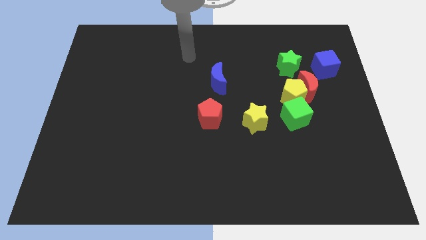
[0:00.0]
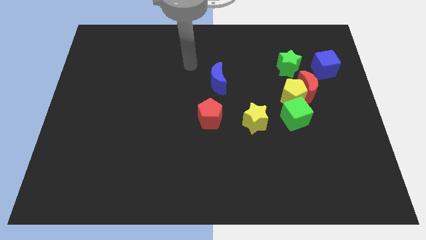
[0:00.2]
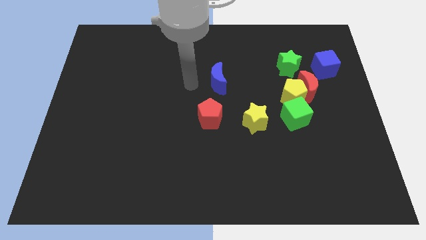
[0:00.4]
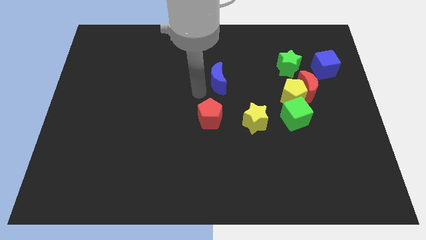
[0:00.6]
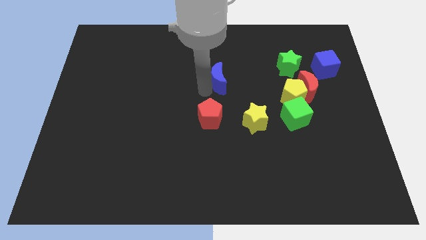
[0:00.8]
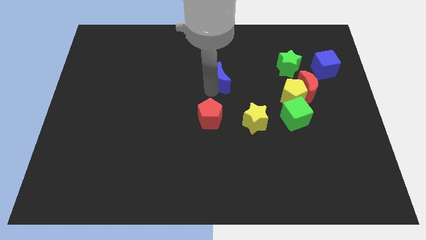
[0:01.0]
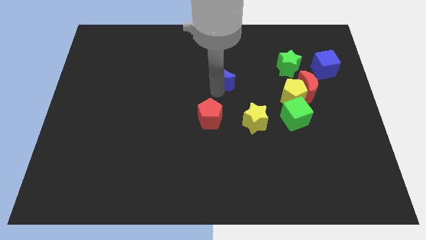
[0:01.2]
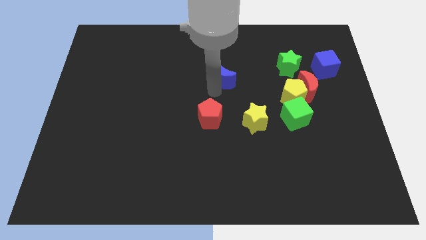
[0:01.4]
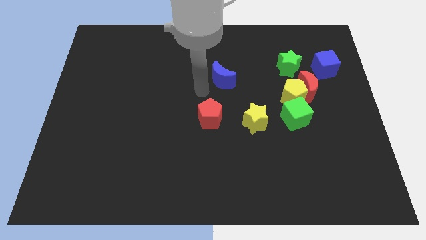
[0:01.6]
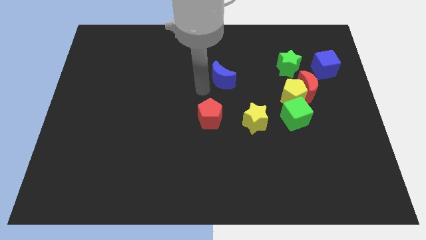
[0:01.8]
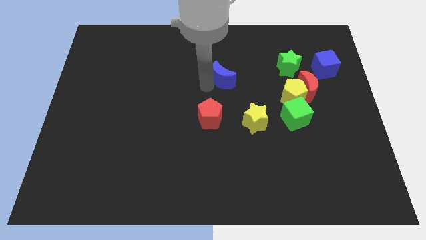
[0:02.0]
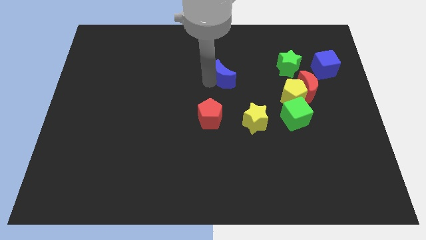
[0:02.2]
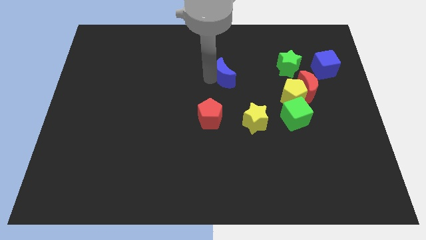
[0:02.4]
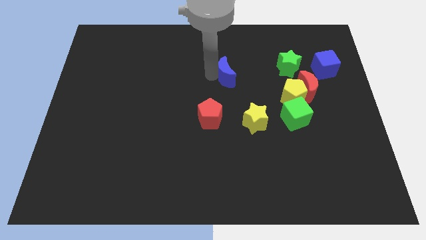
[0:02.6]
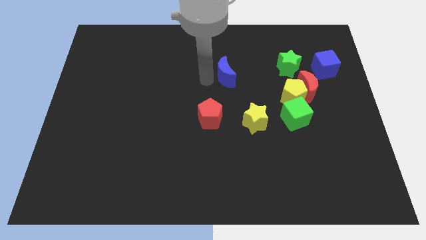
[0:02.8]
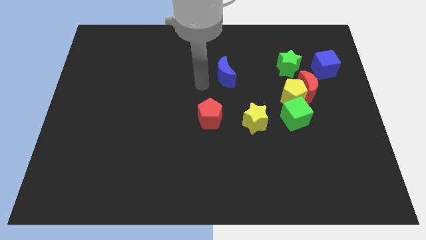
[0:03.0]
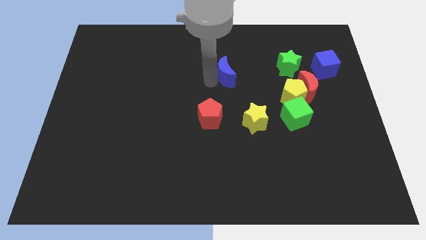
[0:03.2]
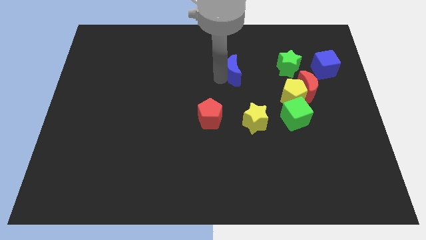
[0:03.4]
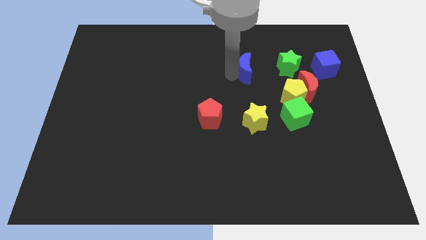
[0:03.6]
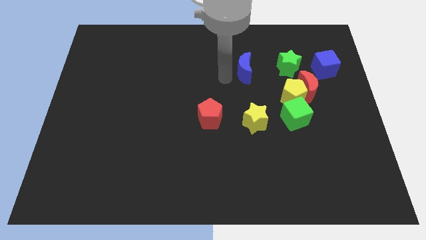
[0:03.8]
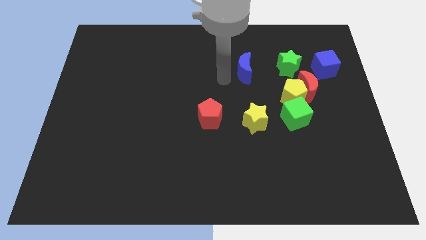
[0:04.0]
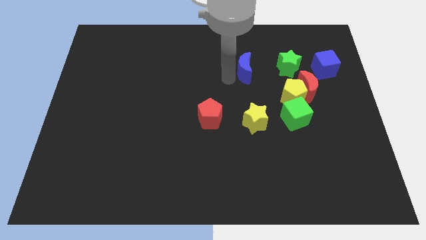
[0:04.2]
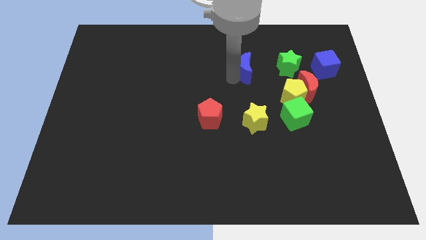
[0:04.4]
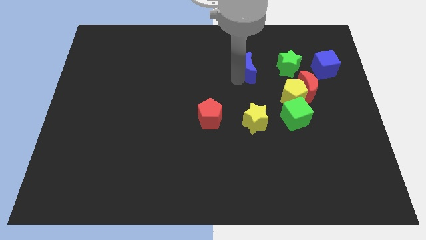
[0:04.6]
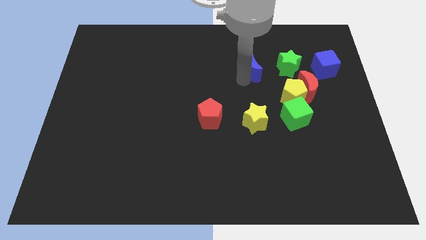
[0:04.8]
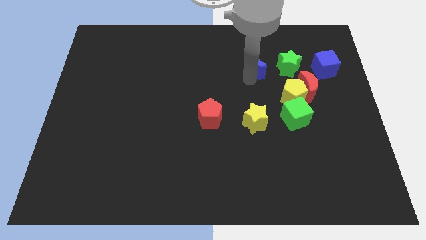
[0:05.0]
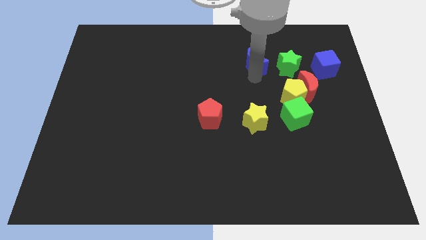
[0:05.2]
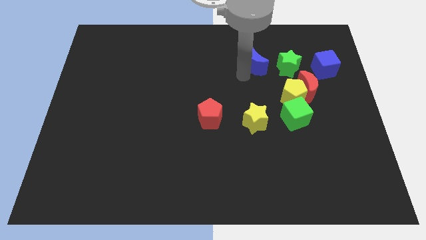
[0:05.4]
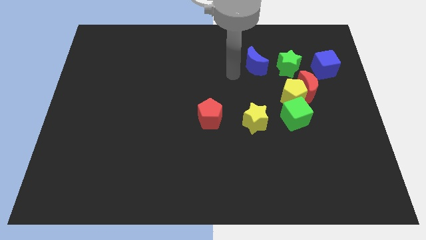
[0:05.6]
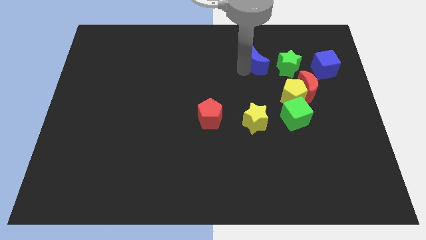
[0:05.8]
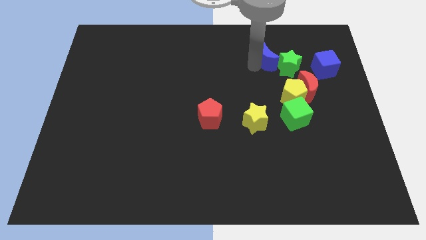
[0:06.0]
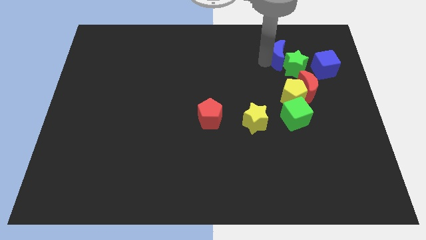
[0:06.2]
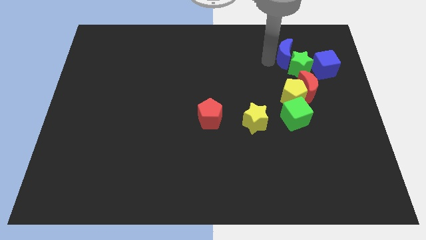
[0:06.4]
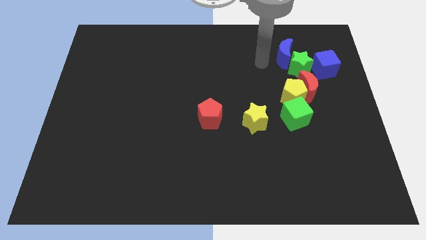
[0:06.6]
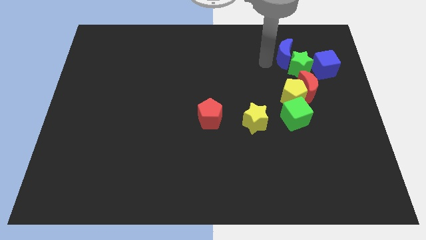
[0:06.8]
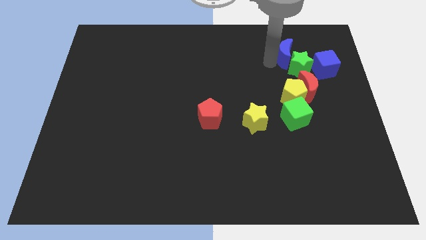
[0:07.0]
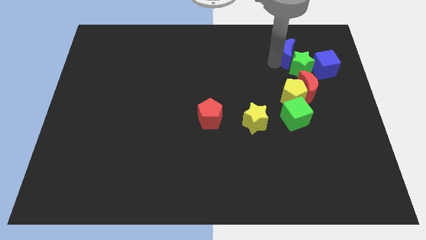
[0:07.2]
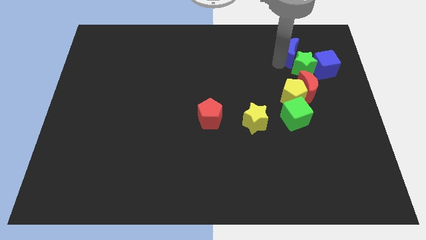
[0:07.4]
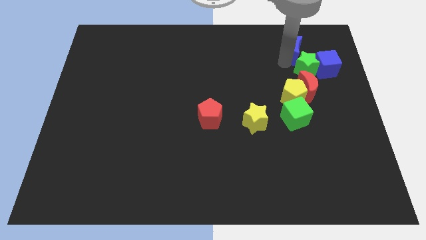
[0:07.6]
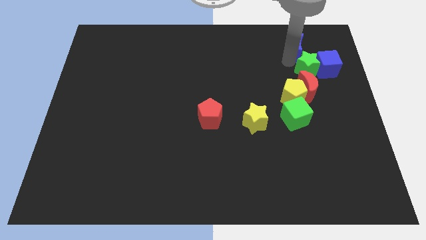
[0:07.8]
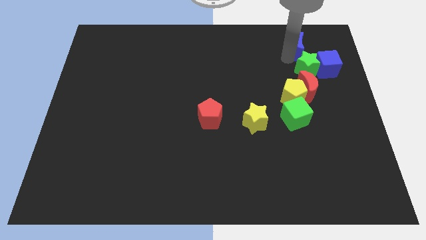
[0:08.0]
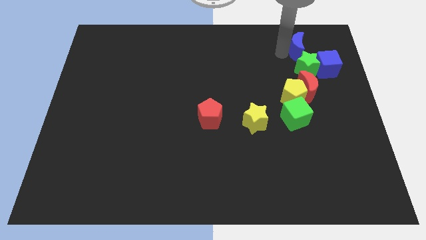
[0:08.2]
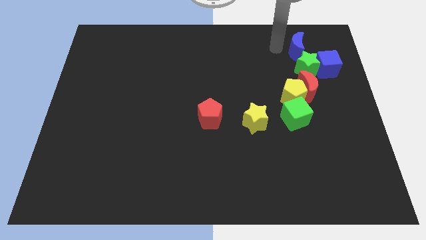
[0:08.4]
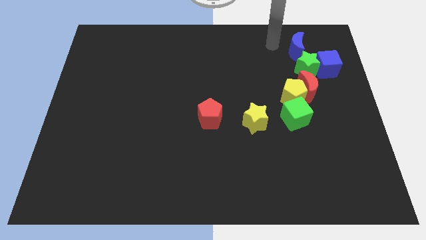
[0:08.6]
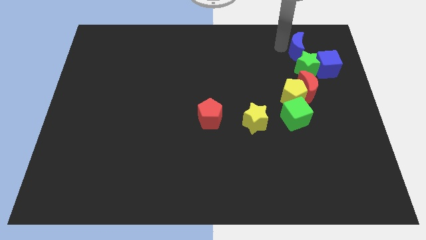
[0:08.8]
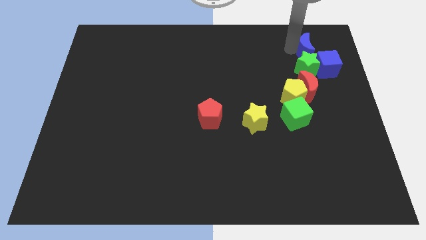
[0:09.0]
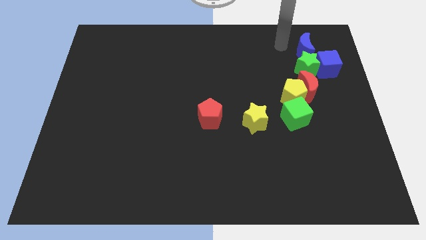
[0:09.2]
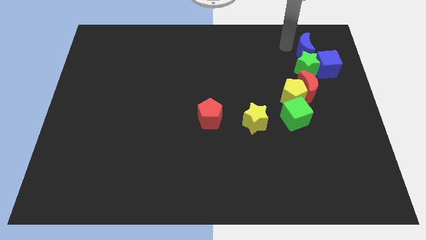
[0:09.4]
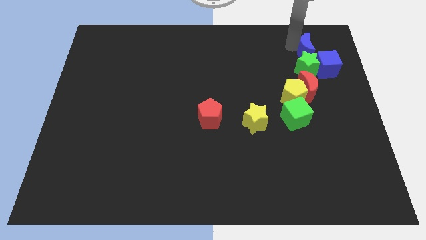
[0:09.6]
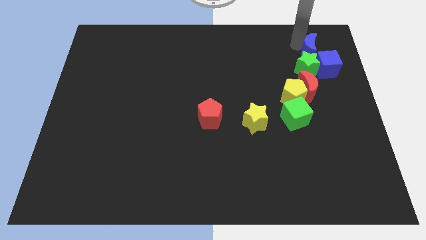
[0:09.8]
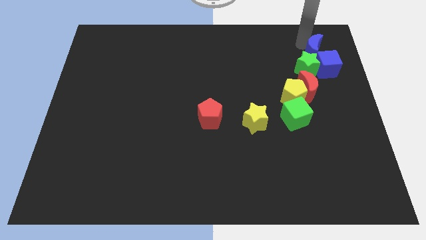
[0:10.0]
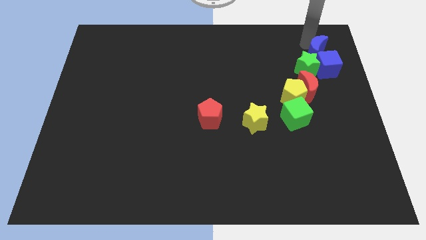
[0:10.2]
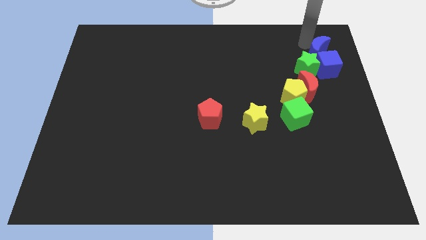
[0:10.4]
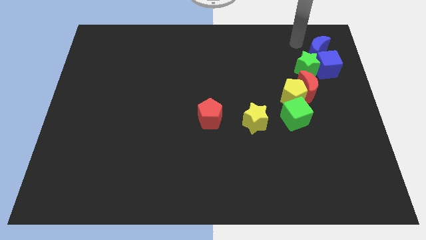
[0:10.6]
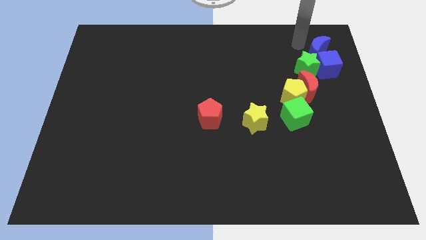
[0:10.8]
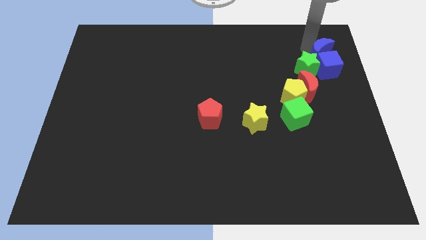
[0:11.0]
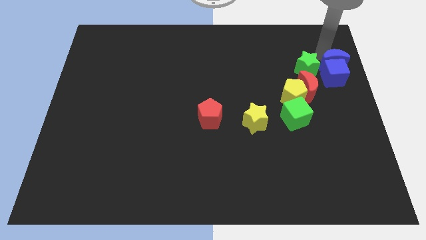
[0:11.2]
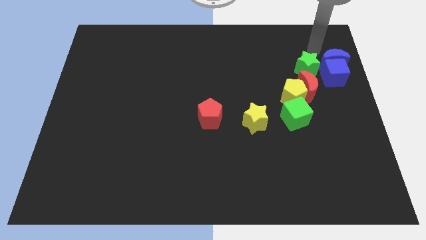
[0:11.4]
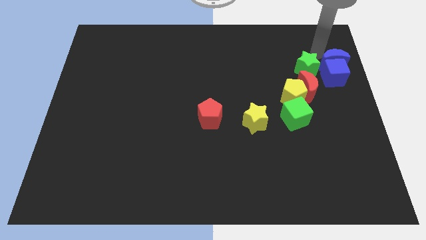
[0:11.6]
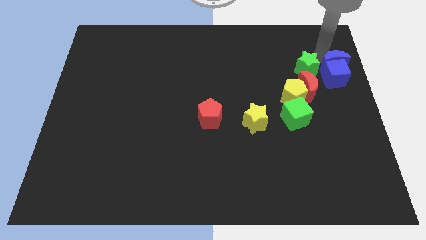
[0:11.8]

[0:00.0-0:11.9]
move the blue moon to the right side of the board

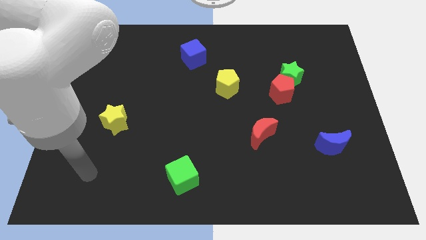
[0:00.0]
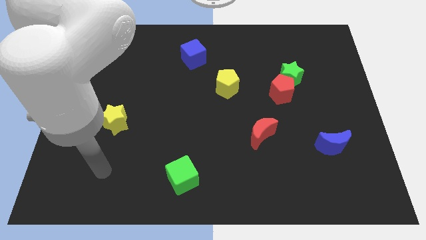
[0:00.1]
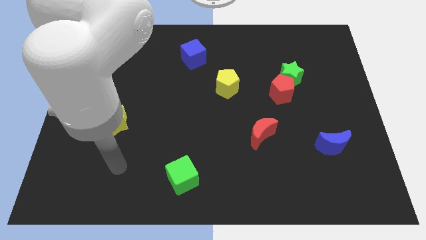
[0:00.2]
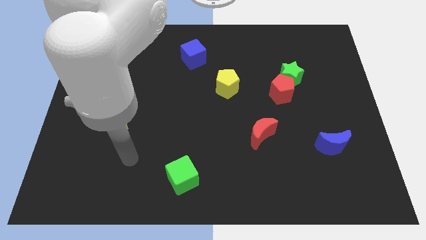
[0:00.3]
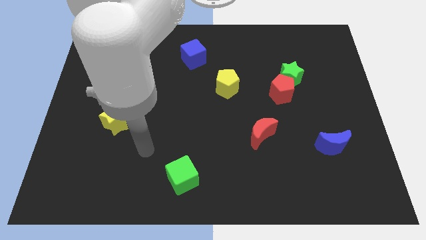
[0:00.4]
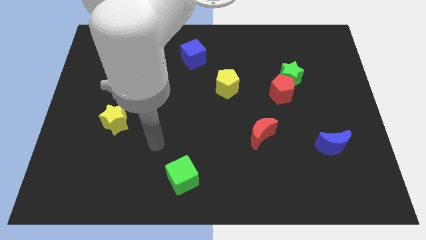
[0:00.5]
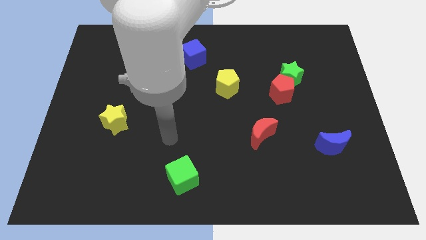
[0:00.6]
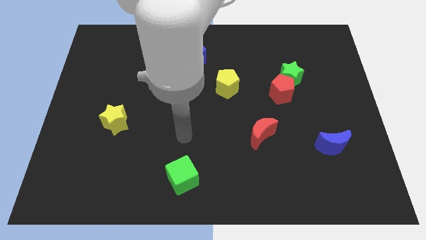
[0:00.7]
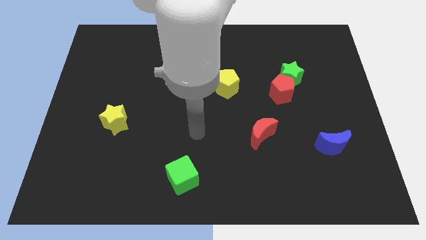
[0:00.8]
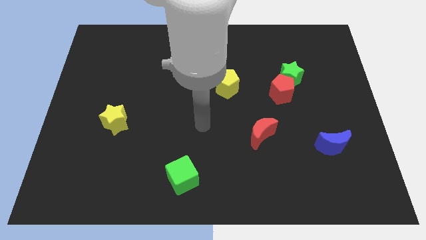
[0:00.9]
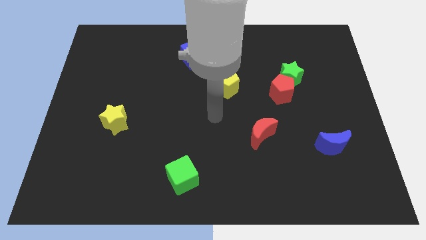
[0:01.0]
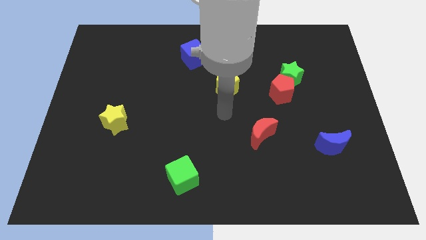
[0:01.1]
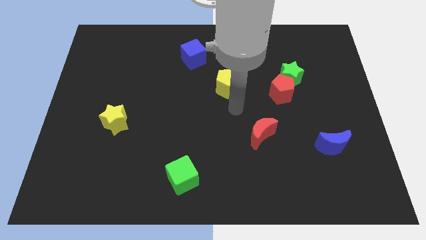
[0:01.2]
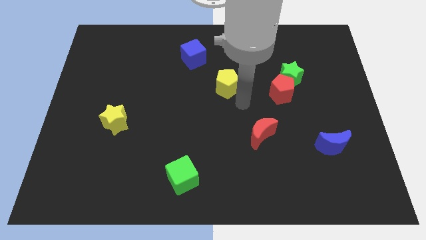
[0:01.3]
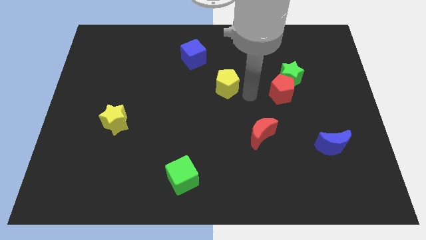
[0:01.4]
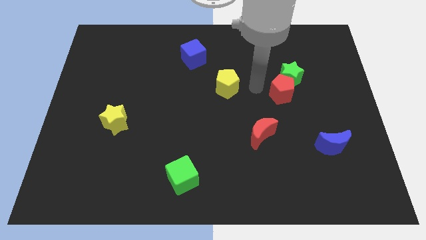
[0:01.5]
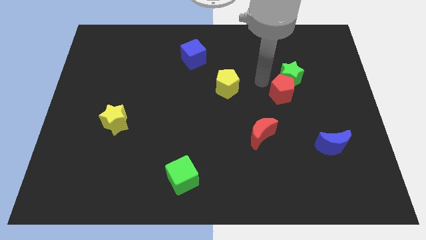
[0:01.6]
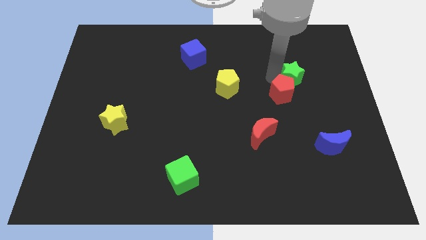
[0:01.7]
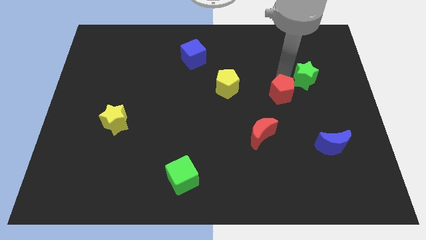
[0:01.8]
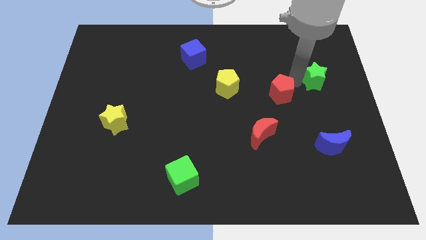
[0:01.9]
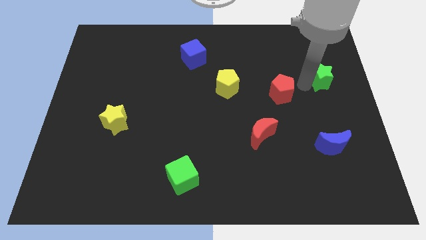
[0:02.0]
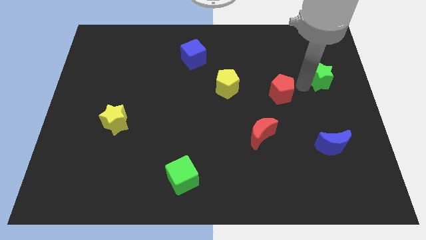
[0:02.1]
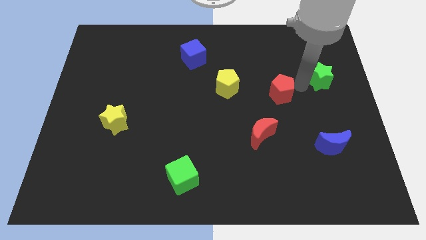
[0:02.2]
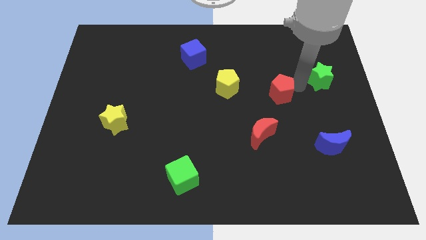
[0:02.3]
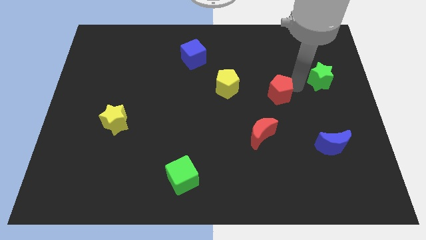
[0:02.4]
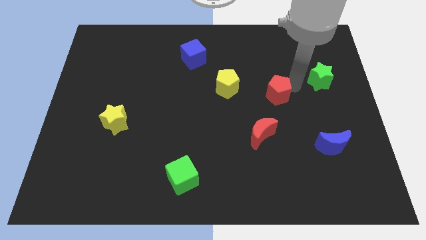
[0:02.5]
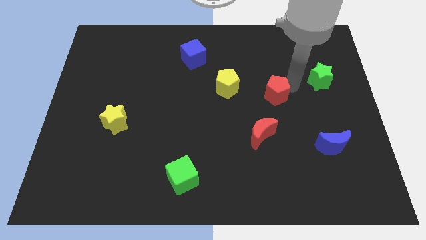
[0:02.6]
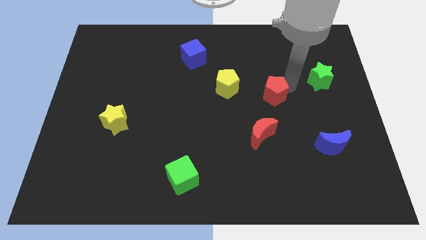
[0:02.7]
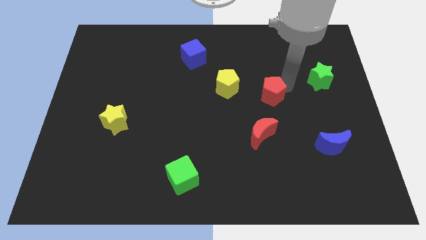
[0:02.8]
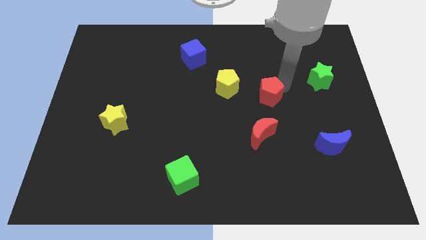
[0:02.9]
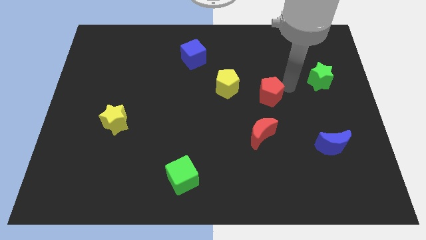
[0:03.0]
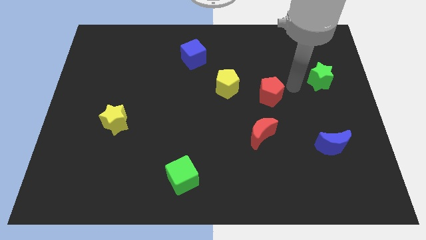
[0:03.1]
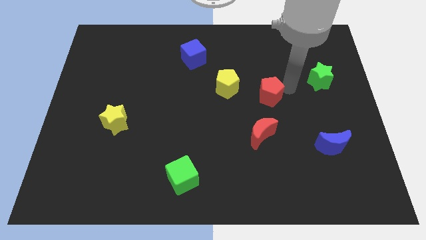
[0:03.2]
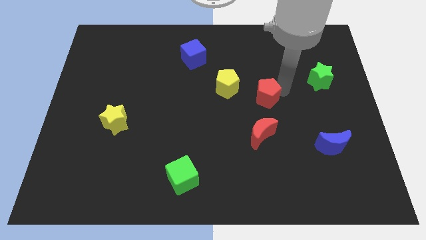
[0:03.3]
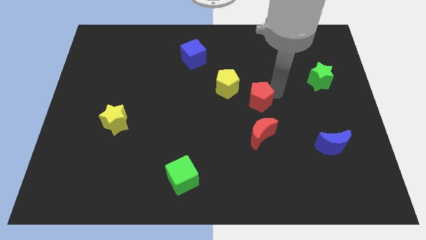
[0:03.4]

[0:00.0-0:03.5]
put the red pentagon to the center
